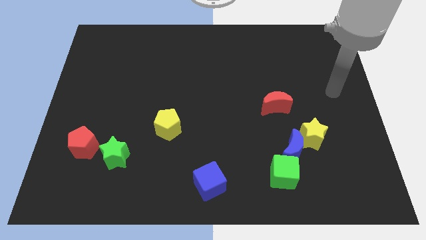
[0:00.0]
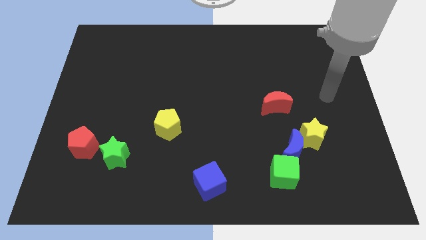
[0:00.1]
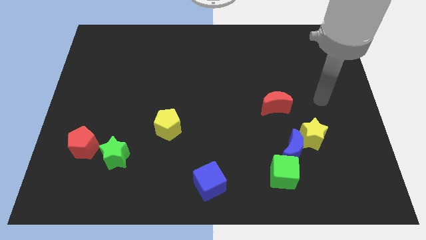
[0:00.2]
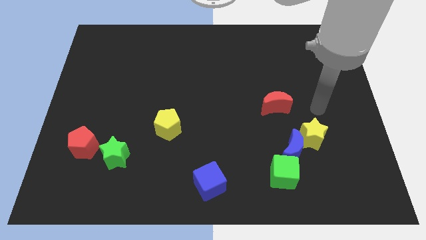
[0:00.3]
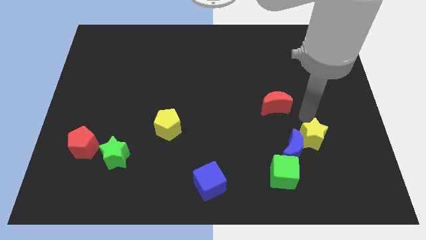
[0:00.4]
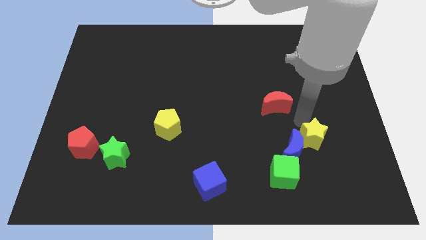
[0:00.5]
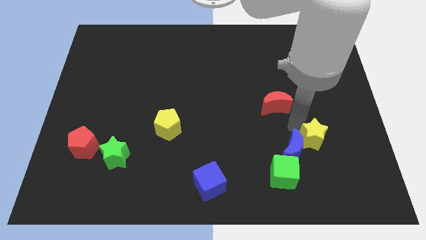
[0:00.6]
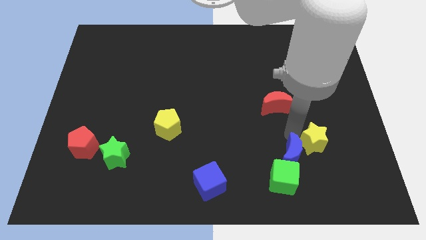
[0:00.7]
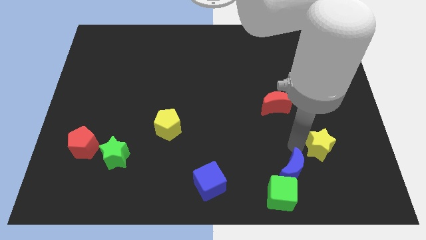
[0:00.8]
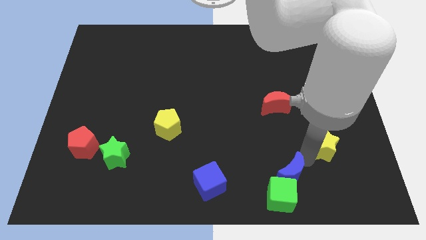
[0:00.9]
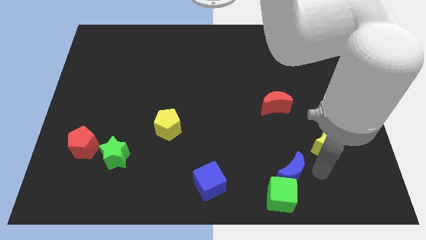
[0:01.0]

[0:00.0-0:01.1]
separate the yellow star from the blue moon

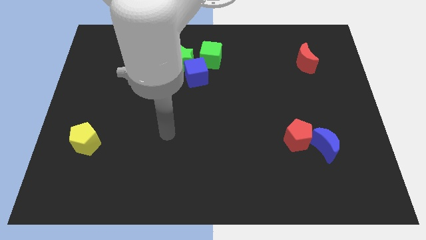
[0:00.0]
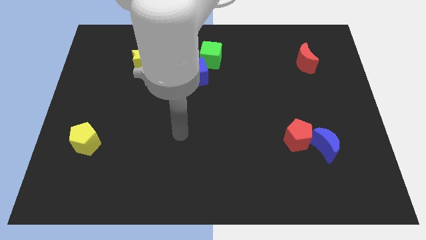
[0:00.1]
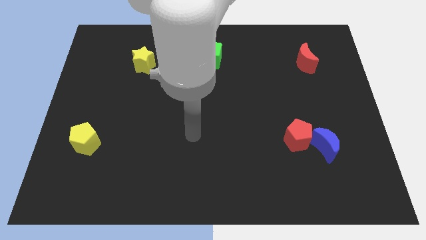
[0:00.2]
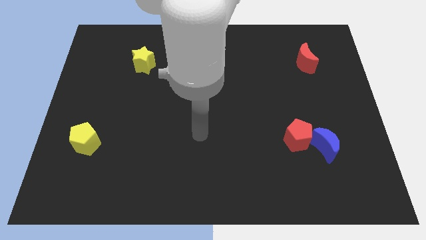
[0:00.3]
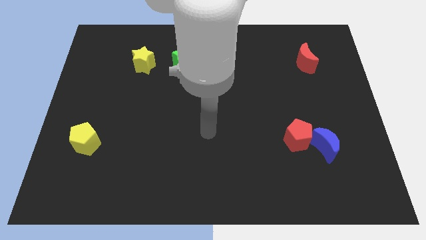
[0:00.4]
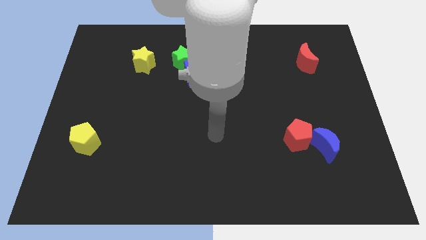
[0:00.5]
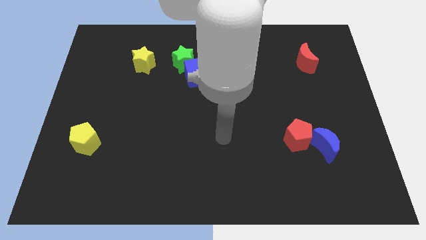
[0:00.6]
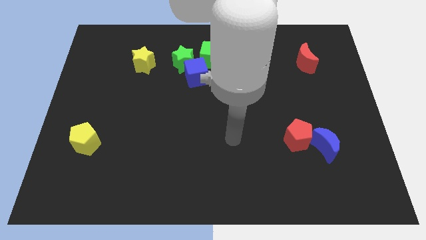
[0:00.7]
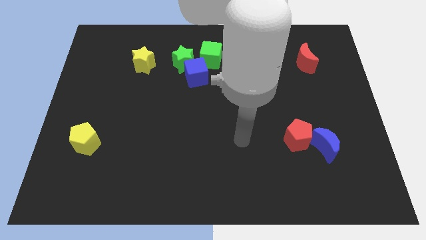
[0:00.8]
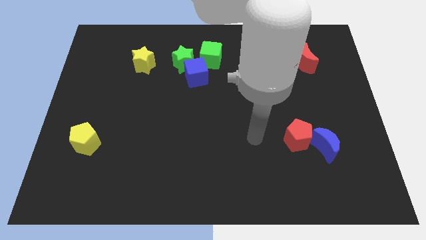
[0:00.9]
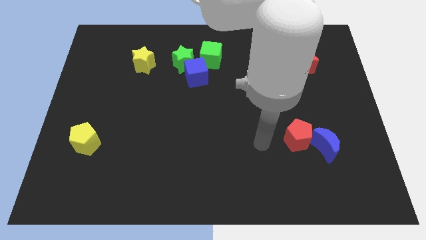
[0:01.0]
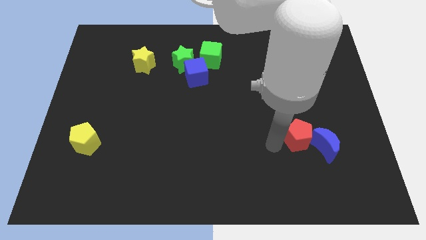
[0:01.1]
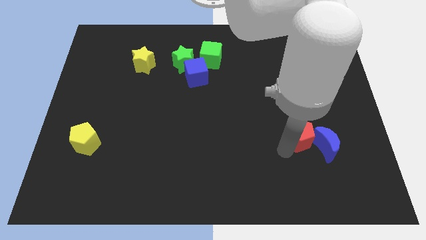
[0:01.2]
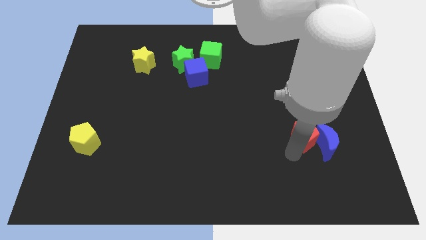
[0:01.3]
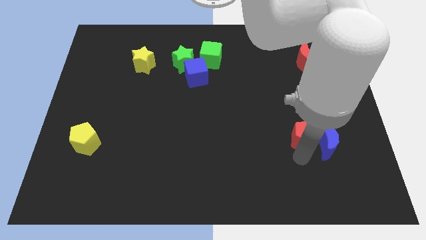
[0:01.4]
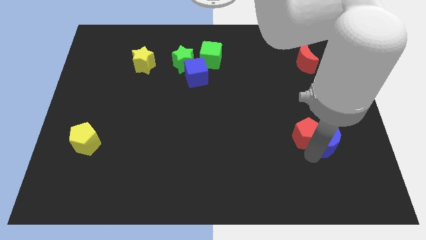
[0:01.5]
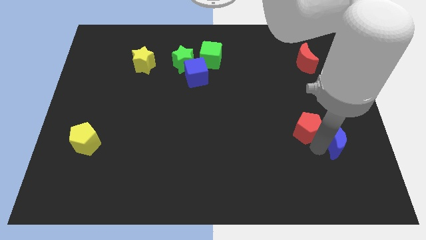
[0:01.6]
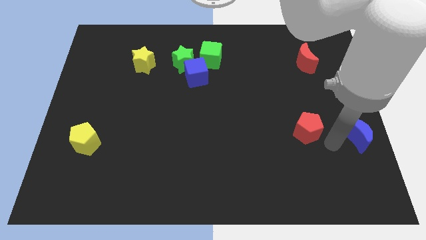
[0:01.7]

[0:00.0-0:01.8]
separate the red pentagon from the blue moon

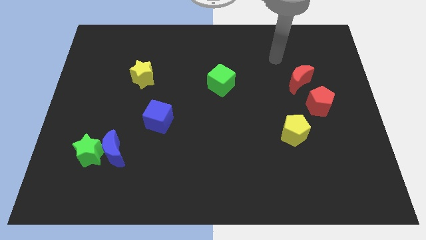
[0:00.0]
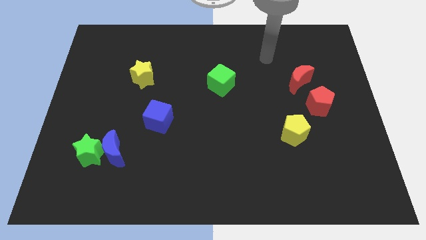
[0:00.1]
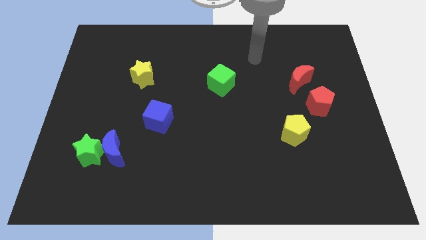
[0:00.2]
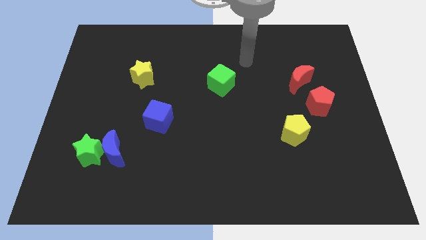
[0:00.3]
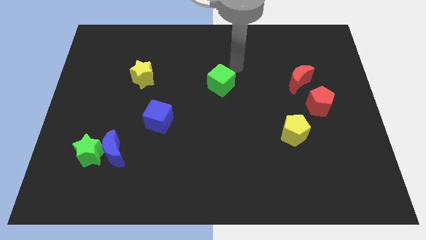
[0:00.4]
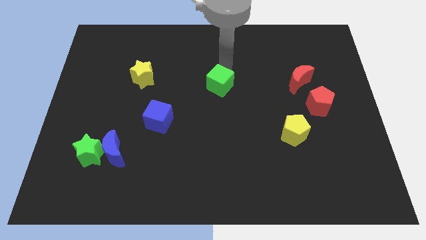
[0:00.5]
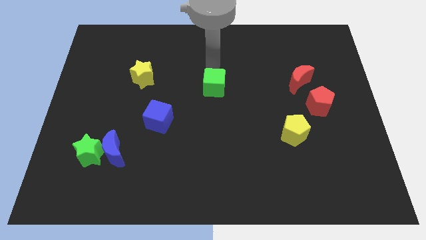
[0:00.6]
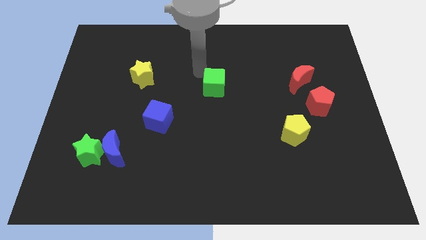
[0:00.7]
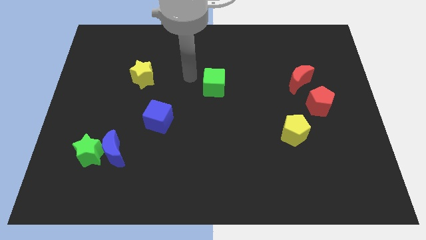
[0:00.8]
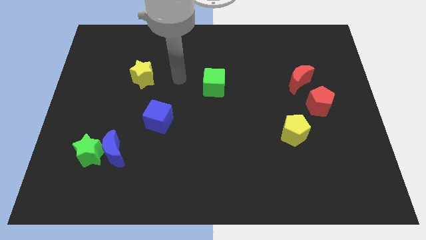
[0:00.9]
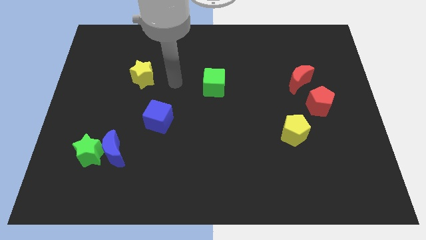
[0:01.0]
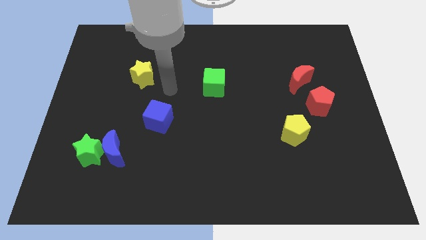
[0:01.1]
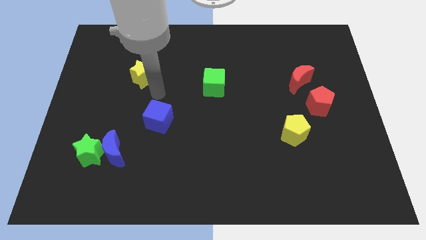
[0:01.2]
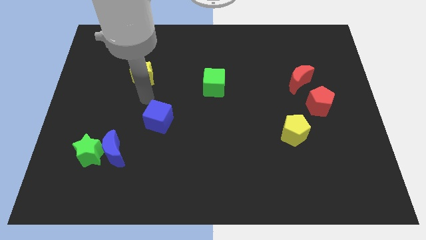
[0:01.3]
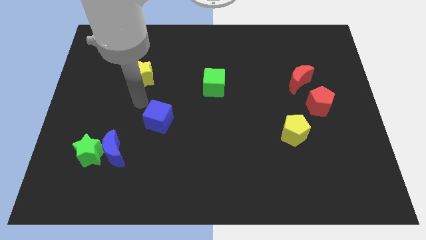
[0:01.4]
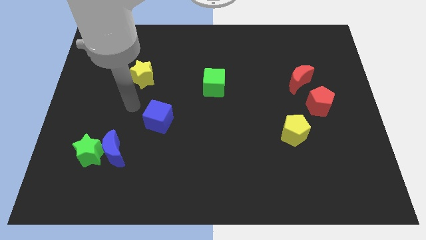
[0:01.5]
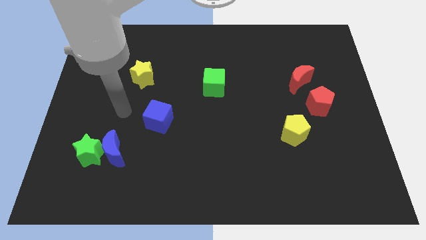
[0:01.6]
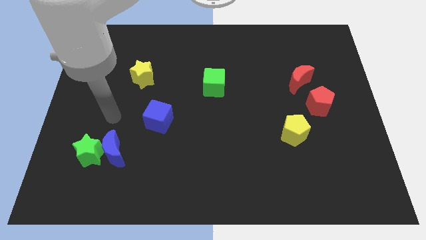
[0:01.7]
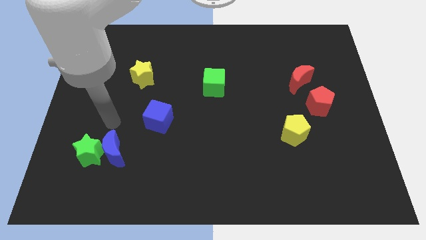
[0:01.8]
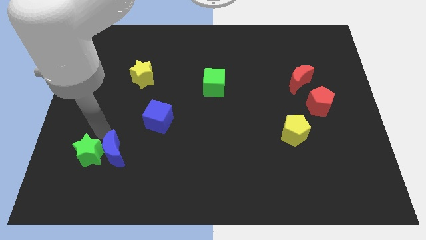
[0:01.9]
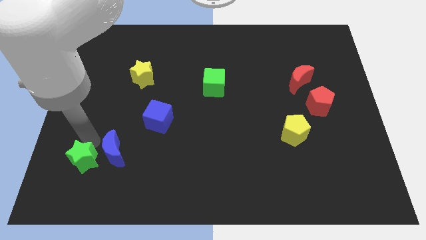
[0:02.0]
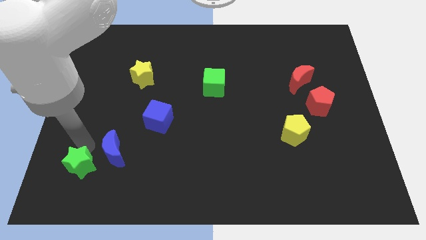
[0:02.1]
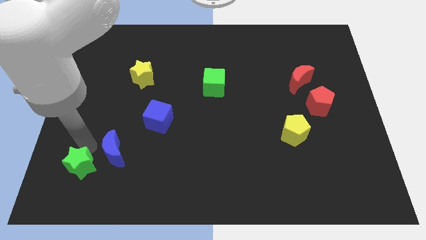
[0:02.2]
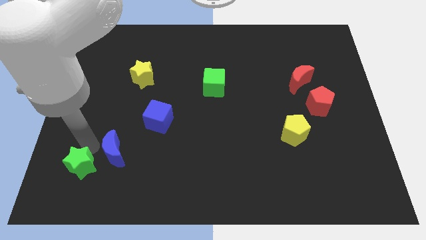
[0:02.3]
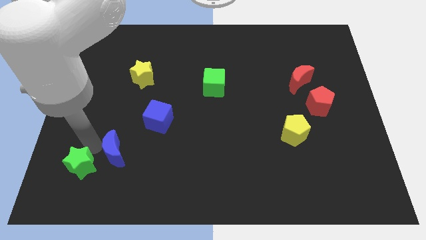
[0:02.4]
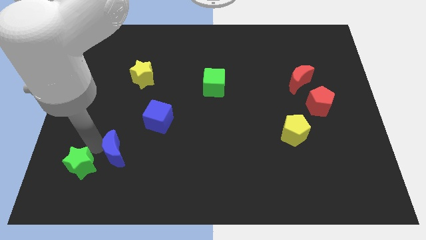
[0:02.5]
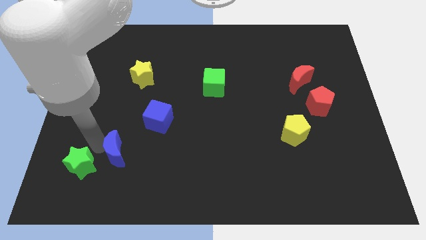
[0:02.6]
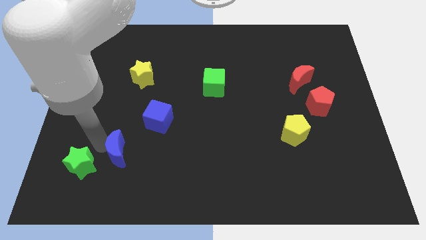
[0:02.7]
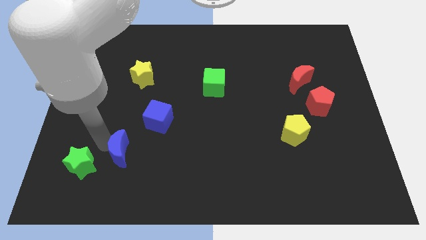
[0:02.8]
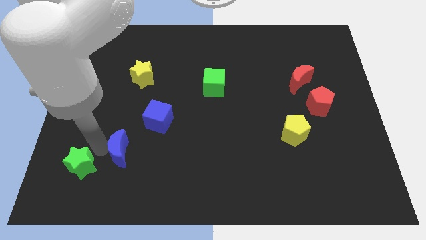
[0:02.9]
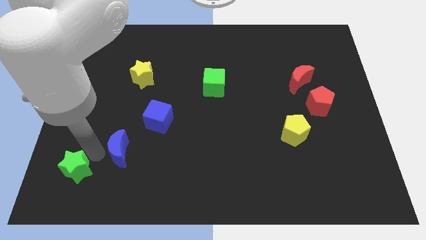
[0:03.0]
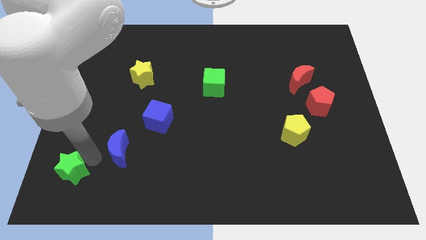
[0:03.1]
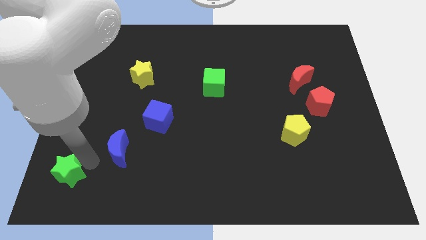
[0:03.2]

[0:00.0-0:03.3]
move the blue moon away from the green star

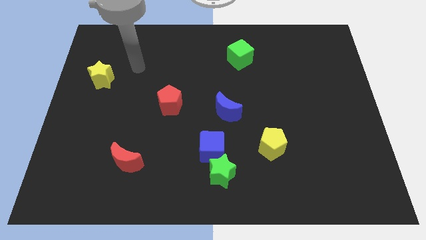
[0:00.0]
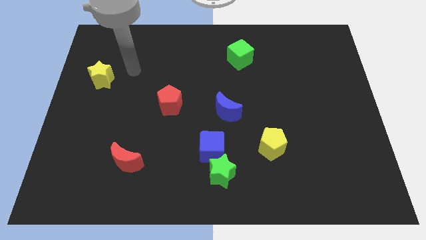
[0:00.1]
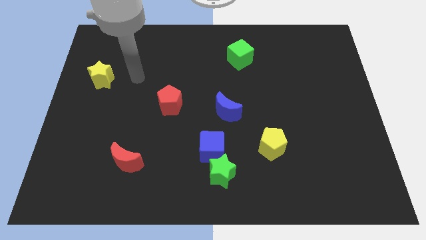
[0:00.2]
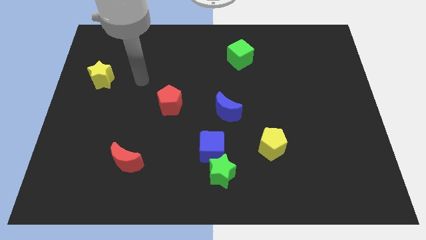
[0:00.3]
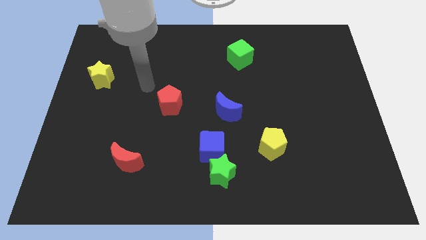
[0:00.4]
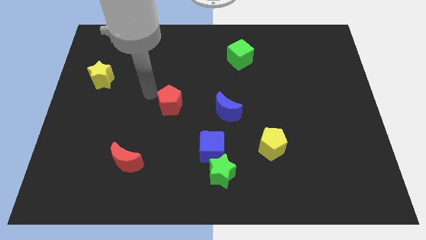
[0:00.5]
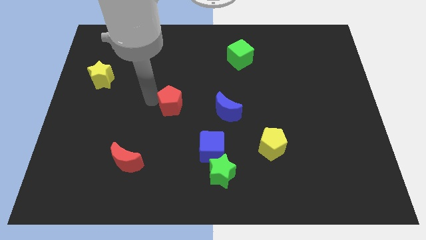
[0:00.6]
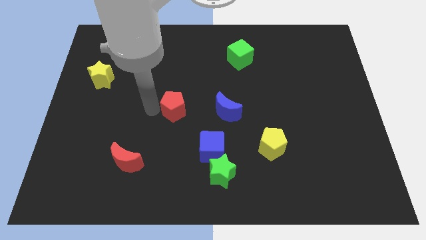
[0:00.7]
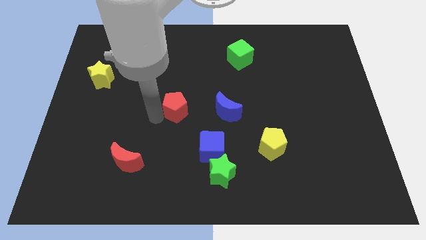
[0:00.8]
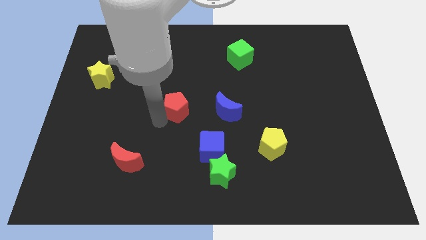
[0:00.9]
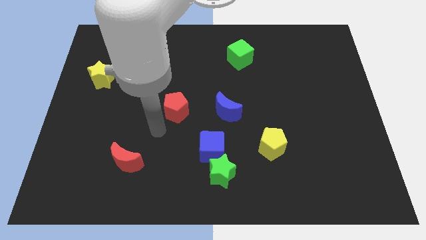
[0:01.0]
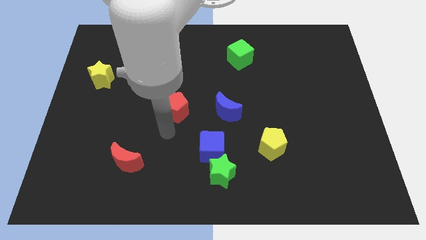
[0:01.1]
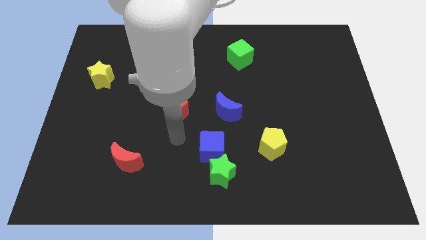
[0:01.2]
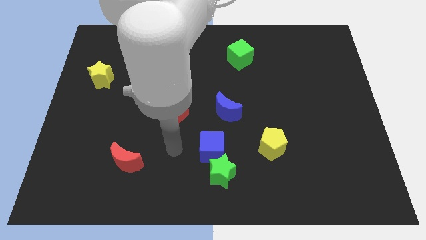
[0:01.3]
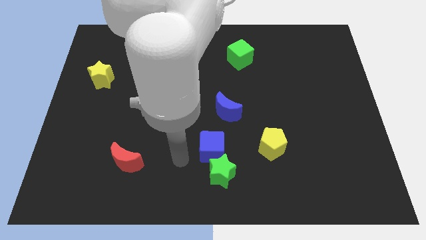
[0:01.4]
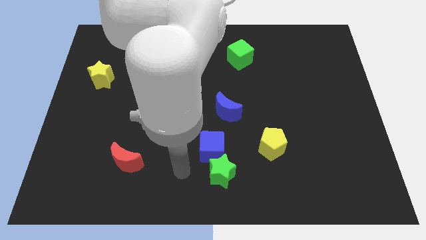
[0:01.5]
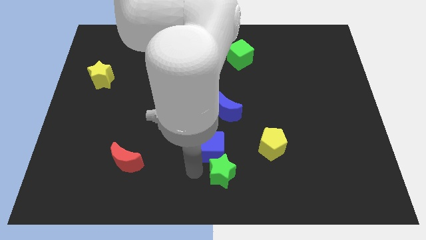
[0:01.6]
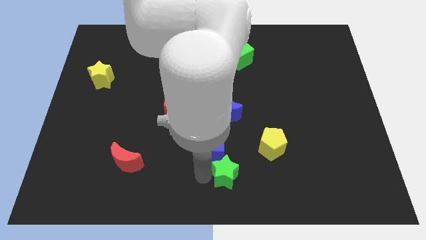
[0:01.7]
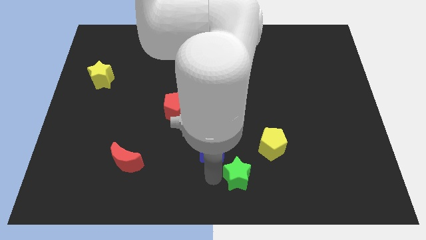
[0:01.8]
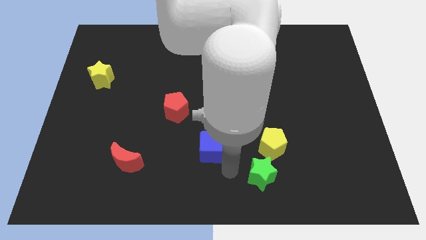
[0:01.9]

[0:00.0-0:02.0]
separate the blue cube from the green star

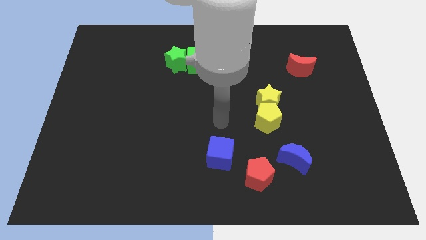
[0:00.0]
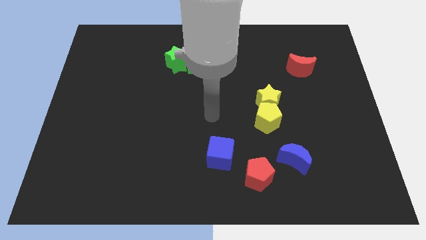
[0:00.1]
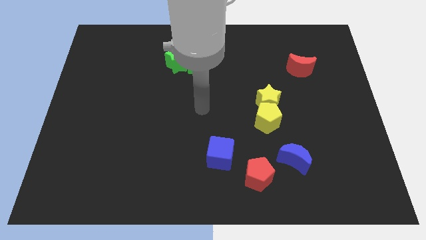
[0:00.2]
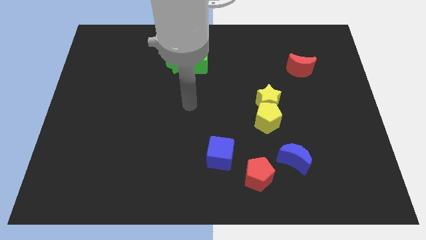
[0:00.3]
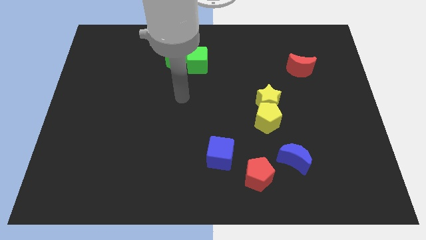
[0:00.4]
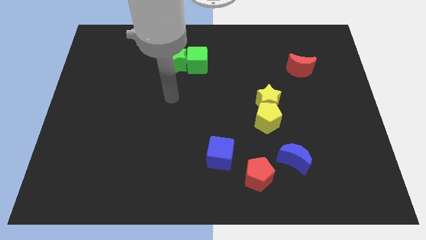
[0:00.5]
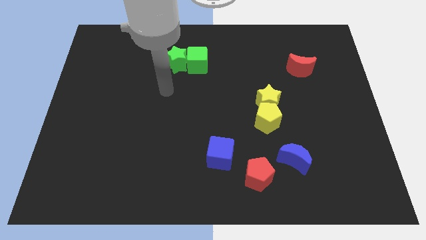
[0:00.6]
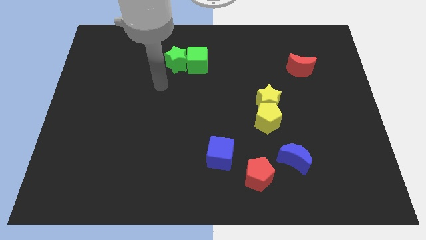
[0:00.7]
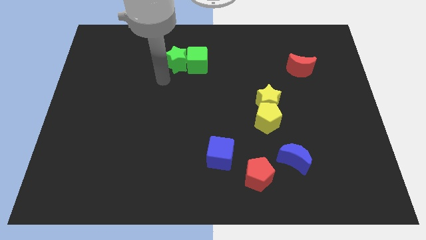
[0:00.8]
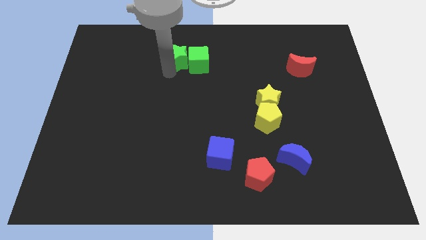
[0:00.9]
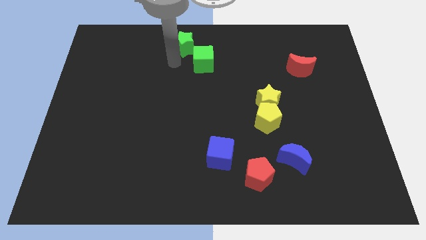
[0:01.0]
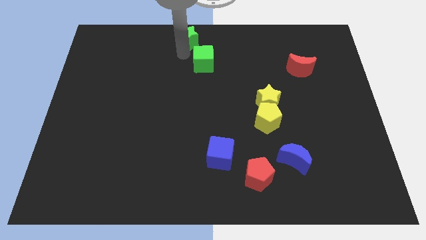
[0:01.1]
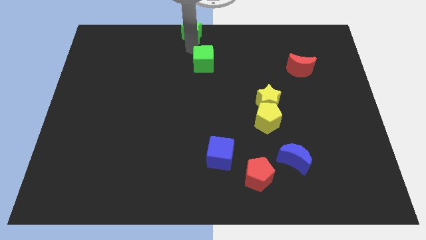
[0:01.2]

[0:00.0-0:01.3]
move the green cube away from the green star
